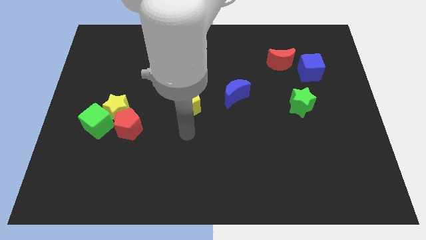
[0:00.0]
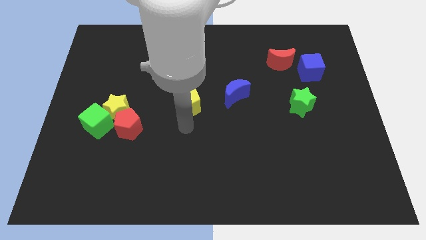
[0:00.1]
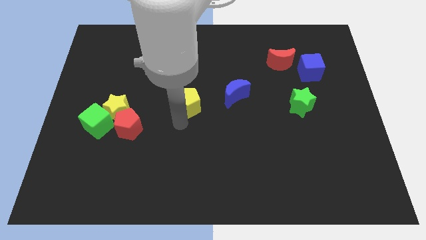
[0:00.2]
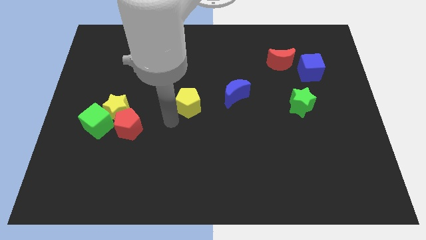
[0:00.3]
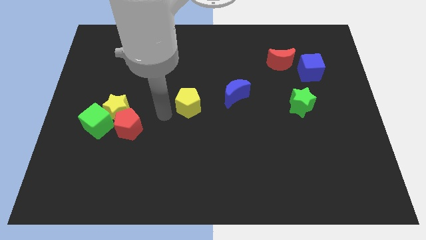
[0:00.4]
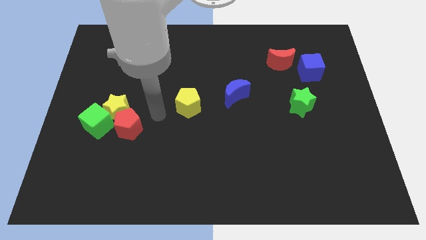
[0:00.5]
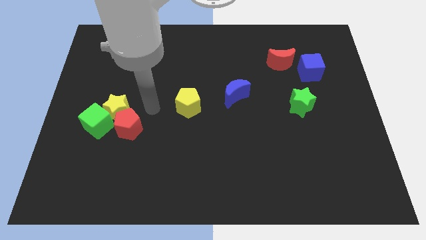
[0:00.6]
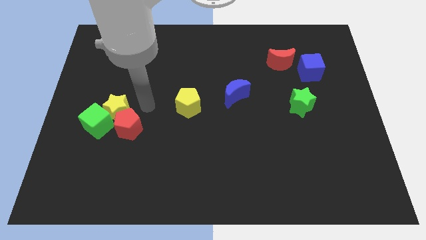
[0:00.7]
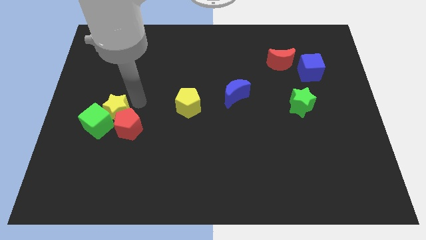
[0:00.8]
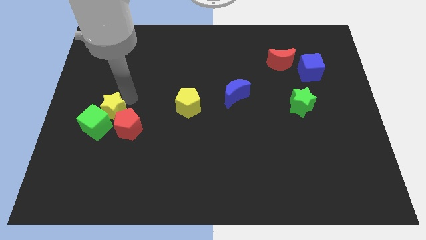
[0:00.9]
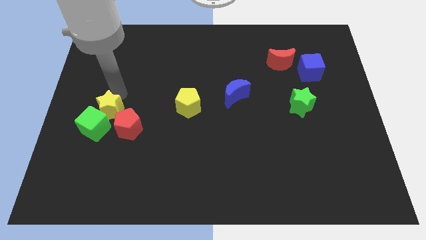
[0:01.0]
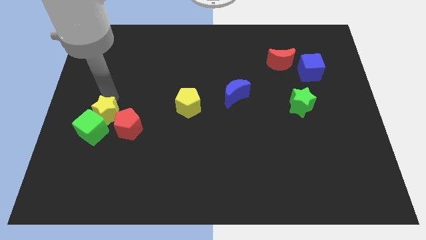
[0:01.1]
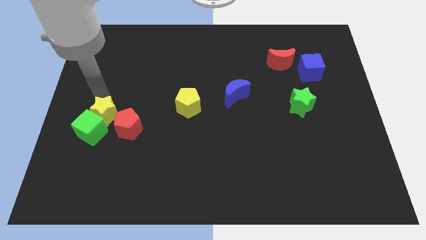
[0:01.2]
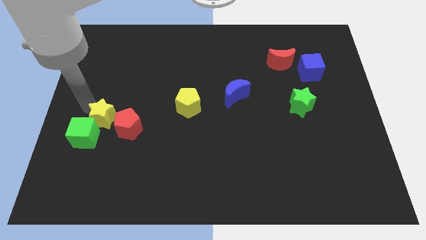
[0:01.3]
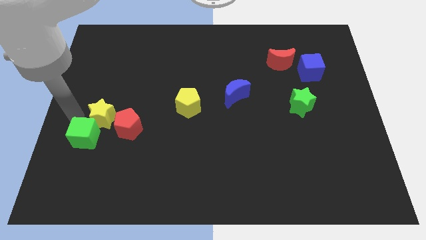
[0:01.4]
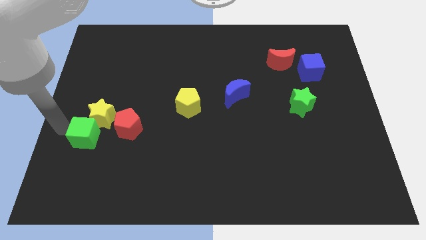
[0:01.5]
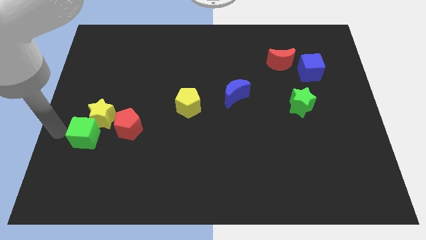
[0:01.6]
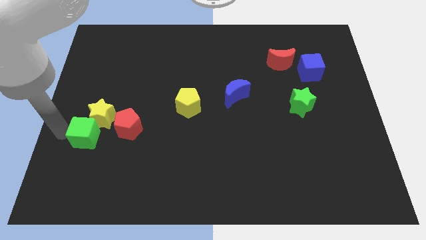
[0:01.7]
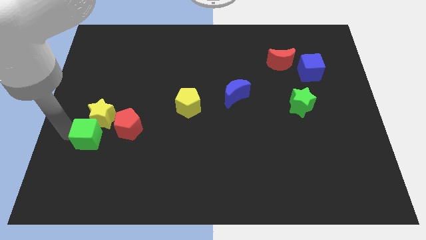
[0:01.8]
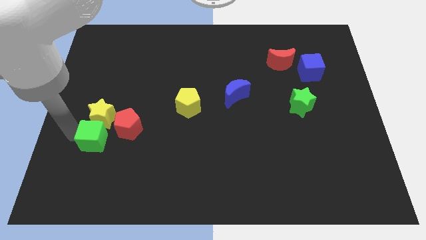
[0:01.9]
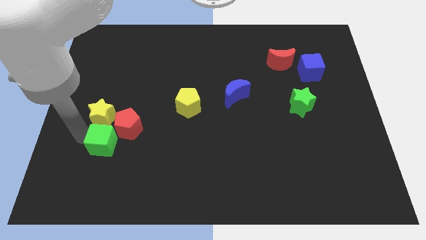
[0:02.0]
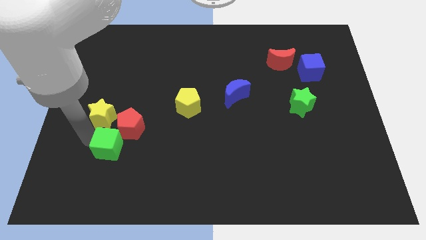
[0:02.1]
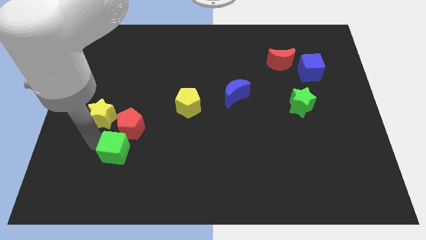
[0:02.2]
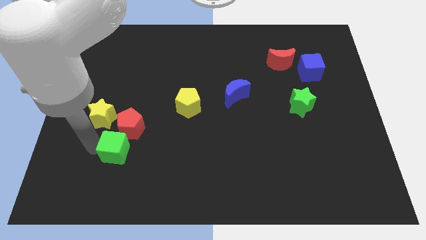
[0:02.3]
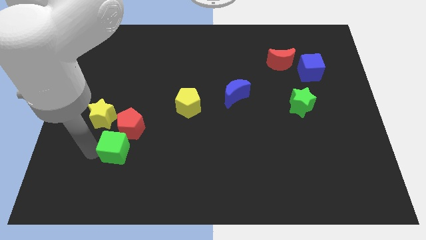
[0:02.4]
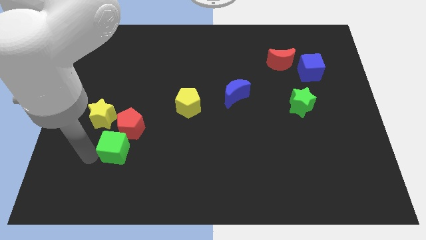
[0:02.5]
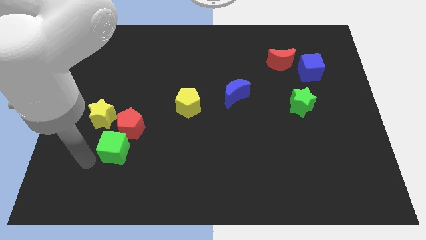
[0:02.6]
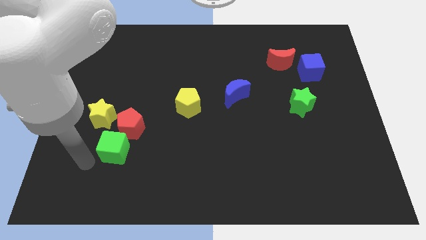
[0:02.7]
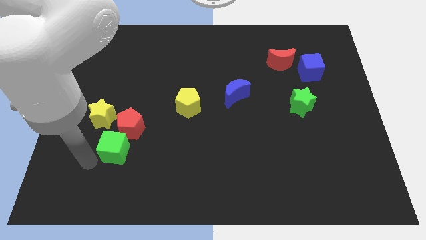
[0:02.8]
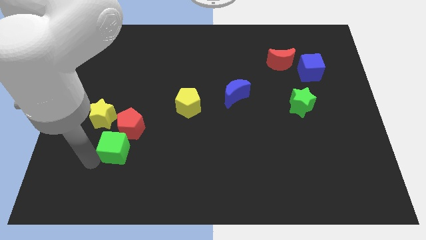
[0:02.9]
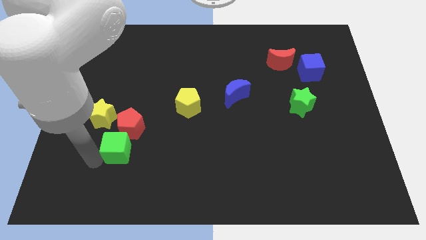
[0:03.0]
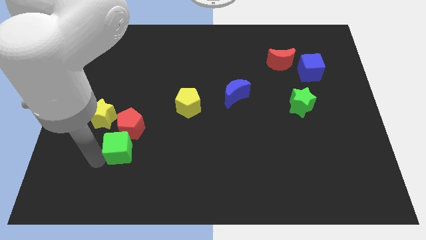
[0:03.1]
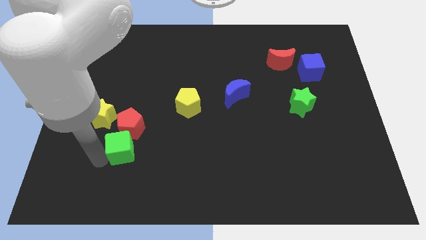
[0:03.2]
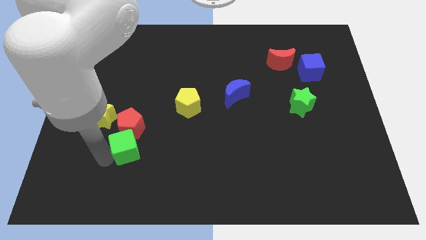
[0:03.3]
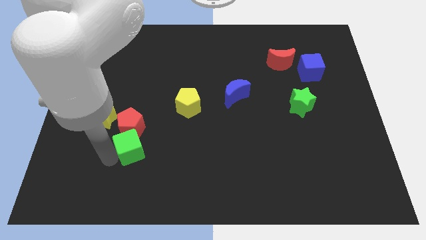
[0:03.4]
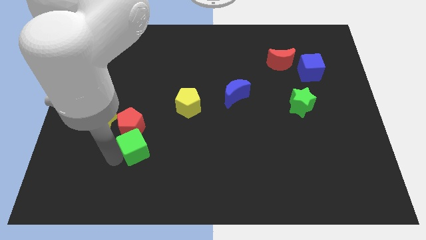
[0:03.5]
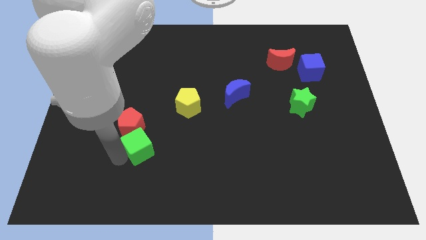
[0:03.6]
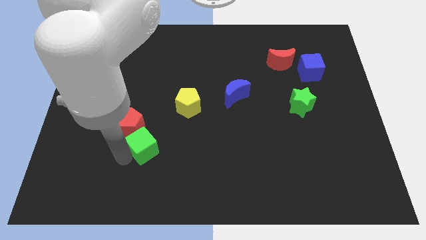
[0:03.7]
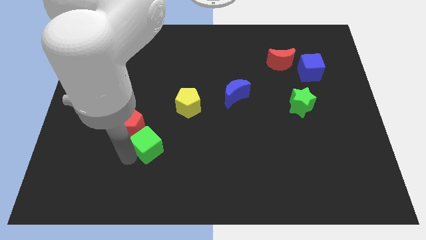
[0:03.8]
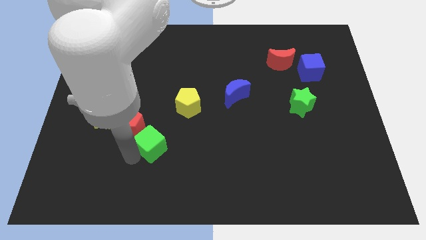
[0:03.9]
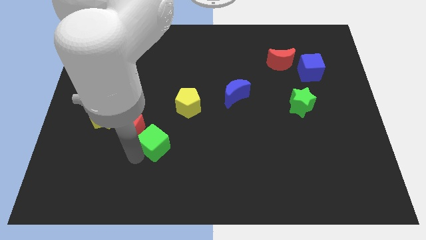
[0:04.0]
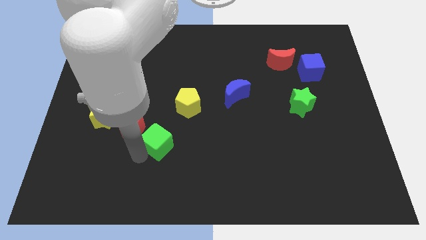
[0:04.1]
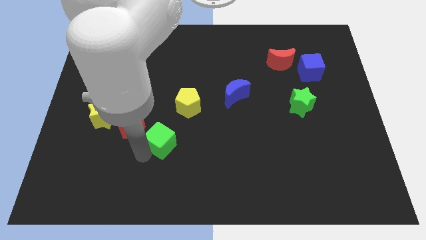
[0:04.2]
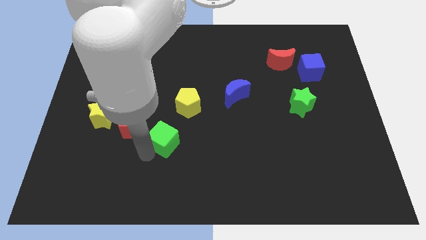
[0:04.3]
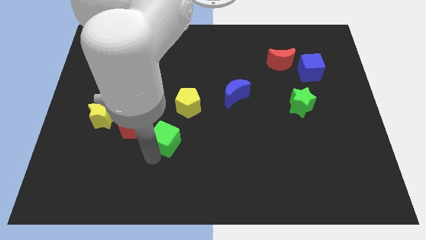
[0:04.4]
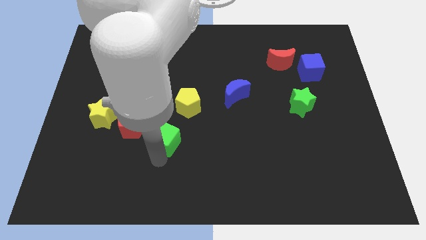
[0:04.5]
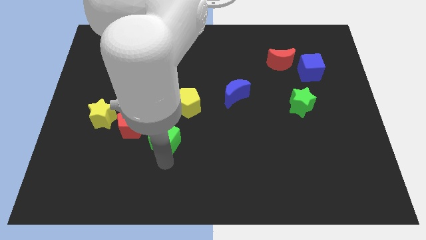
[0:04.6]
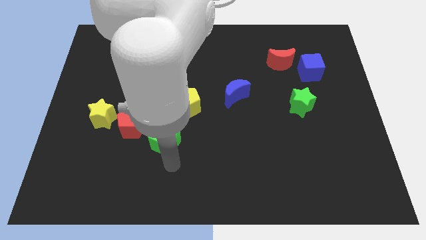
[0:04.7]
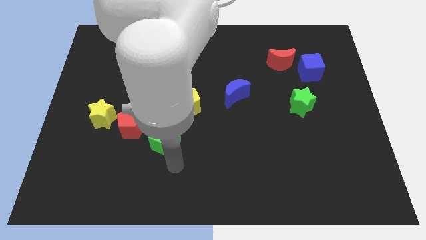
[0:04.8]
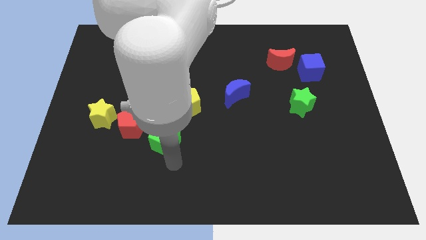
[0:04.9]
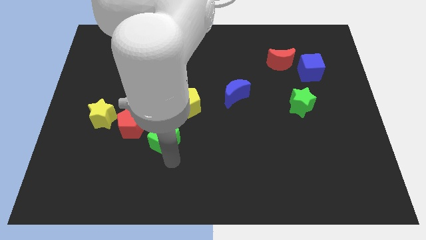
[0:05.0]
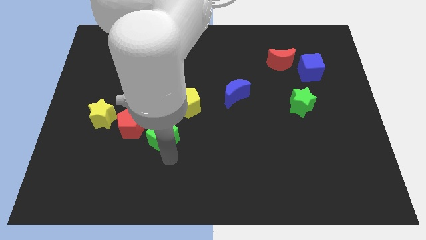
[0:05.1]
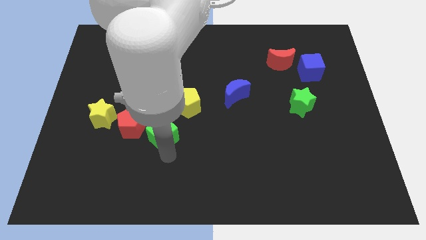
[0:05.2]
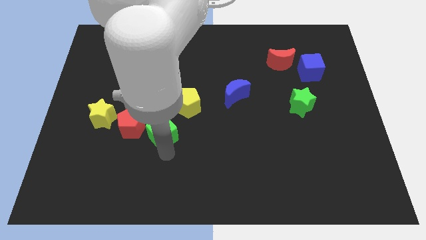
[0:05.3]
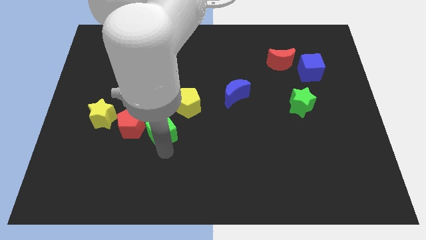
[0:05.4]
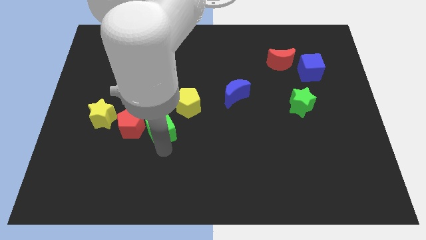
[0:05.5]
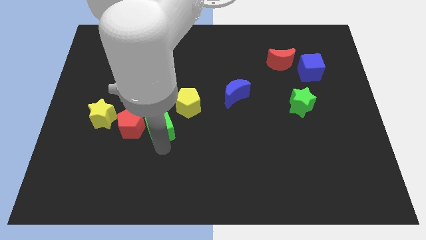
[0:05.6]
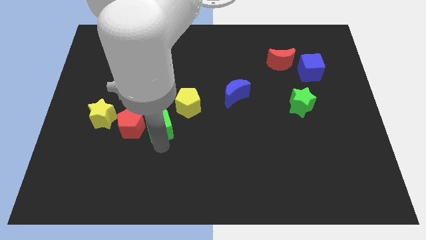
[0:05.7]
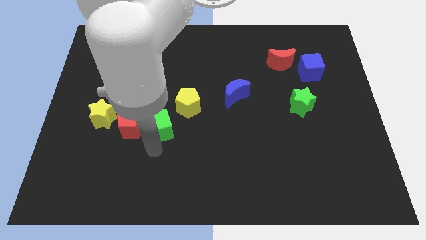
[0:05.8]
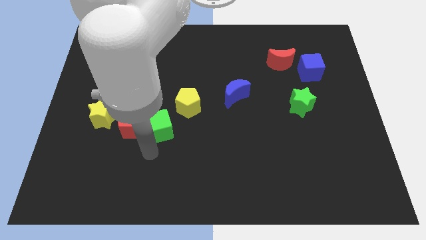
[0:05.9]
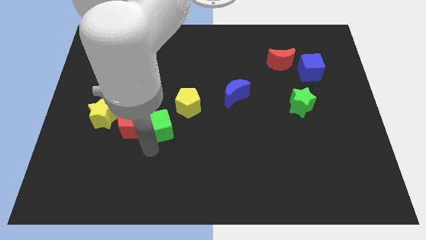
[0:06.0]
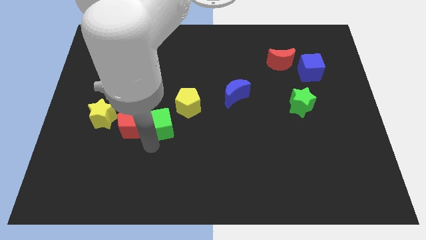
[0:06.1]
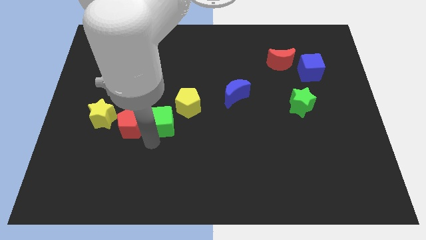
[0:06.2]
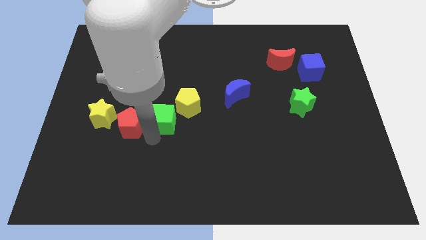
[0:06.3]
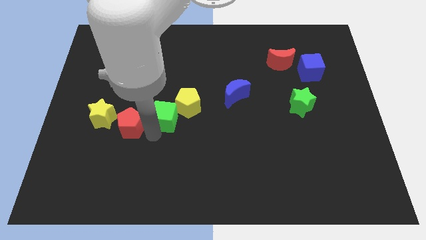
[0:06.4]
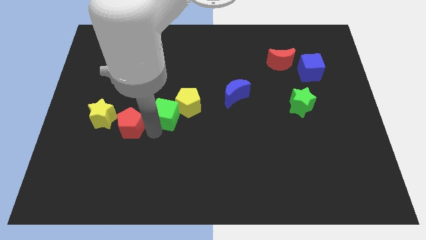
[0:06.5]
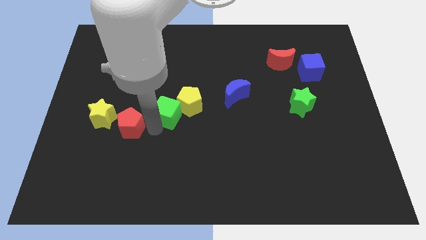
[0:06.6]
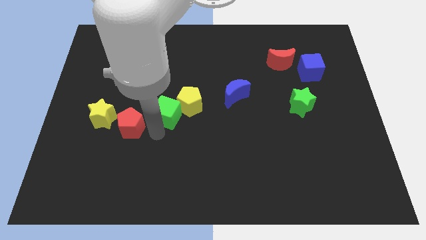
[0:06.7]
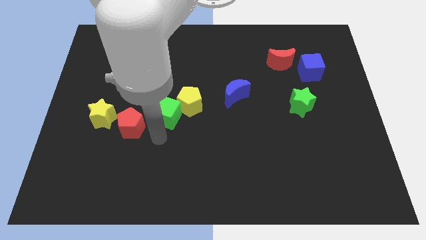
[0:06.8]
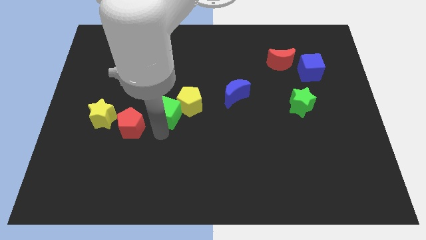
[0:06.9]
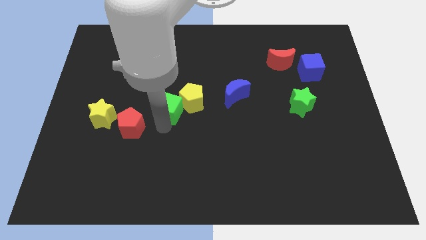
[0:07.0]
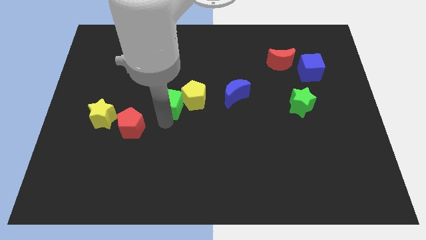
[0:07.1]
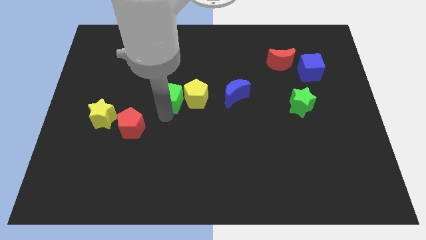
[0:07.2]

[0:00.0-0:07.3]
slide the green cube just left of the blue moon

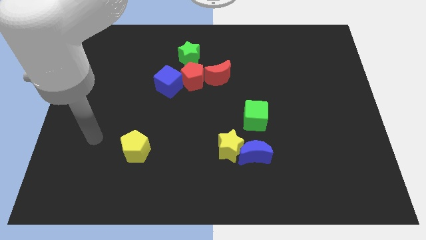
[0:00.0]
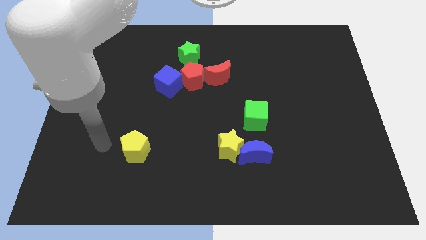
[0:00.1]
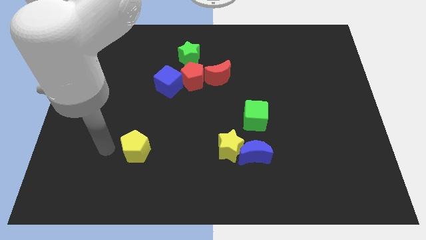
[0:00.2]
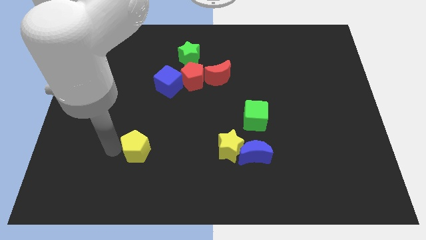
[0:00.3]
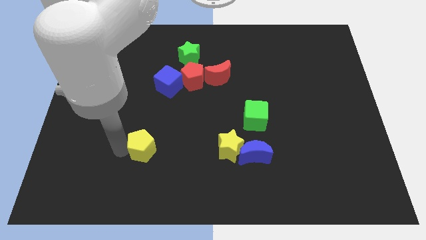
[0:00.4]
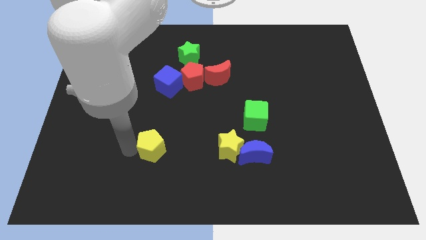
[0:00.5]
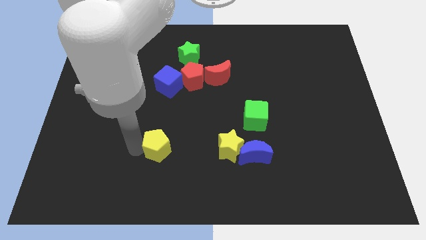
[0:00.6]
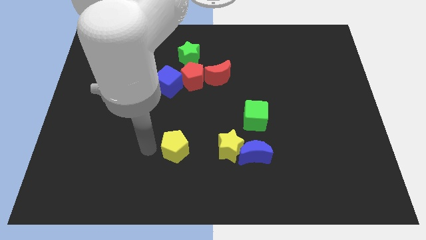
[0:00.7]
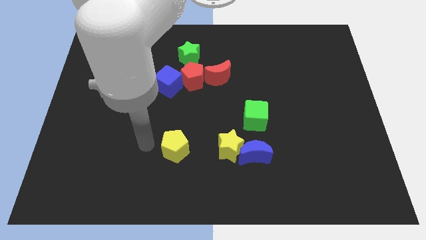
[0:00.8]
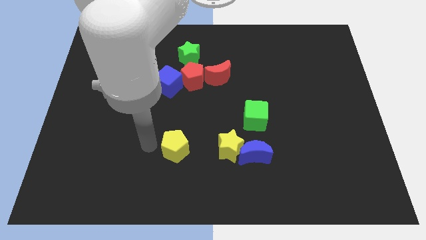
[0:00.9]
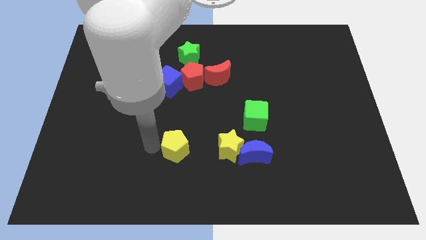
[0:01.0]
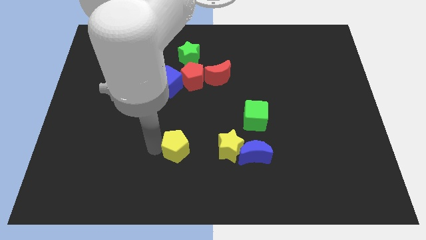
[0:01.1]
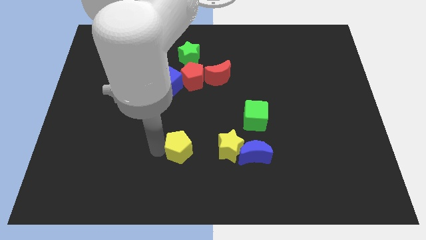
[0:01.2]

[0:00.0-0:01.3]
slide the yellow pentagon just left of the blue moon
